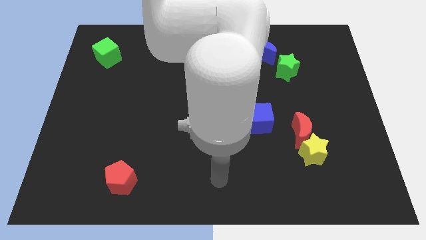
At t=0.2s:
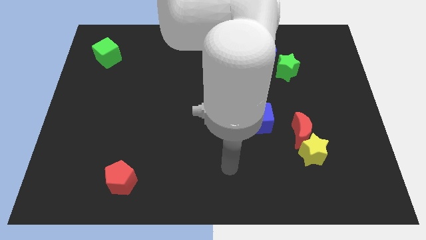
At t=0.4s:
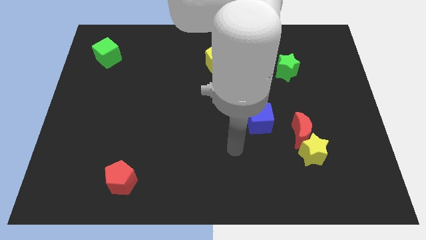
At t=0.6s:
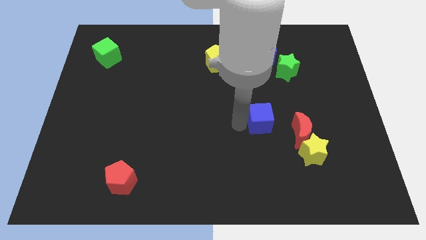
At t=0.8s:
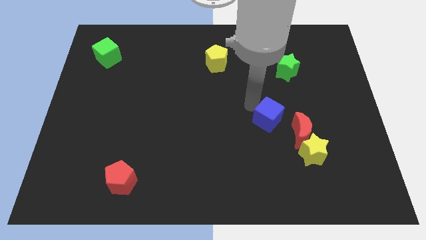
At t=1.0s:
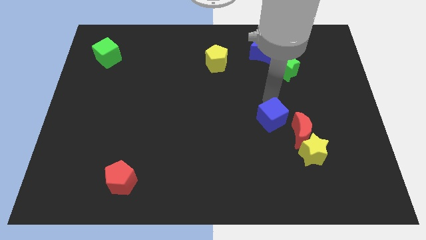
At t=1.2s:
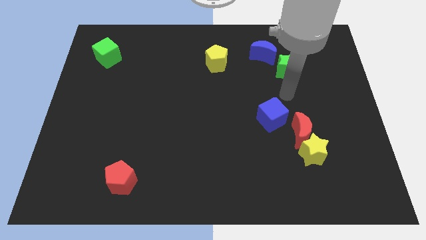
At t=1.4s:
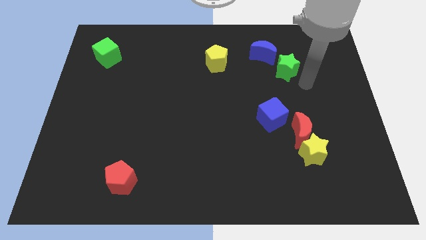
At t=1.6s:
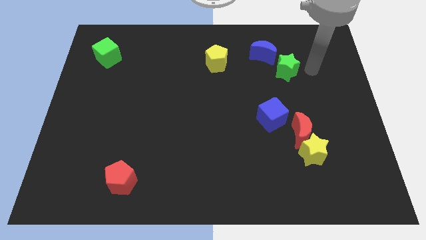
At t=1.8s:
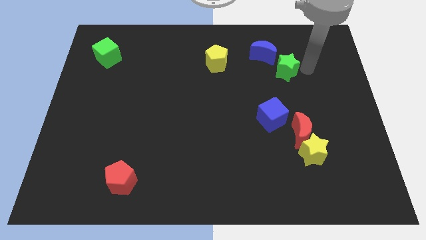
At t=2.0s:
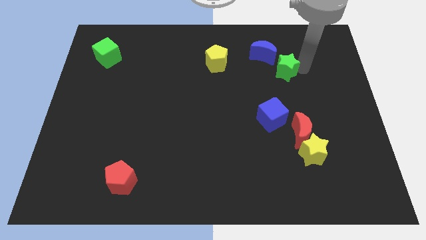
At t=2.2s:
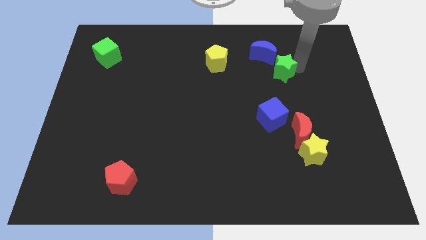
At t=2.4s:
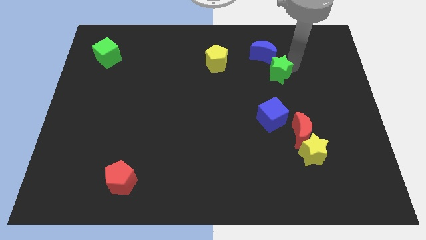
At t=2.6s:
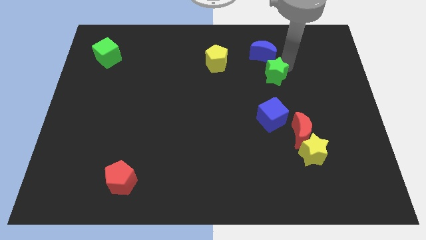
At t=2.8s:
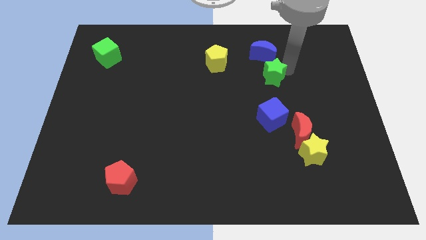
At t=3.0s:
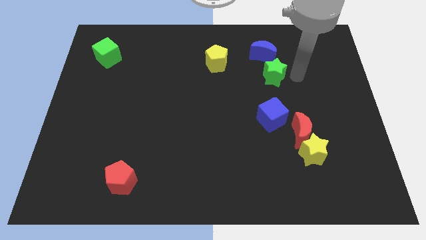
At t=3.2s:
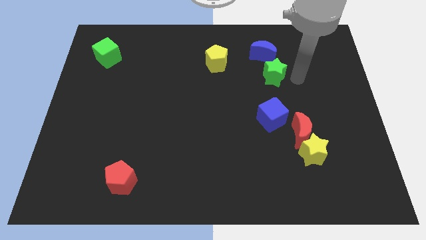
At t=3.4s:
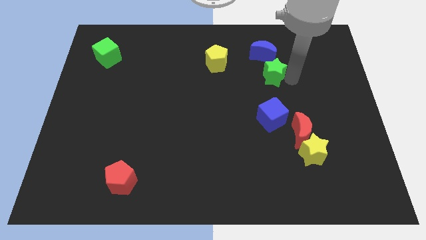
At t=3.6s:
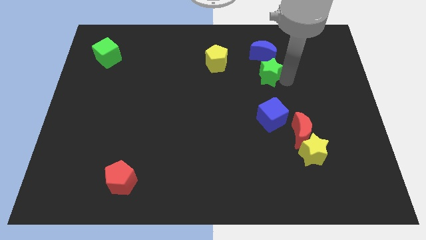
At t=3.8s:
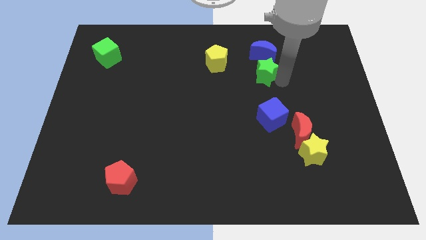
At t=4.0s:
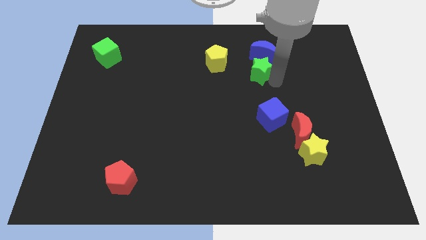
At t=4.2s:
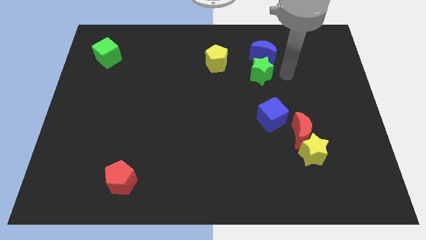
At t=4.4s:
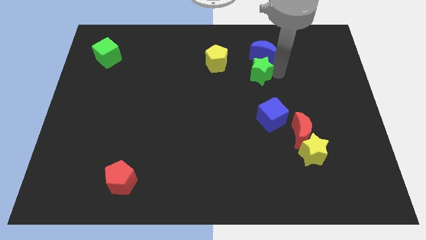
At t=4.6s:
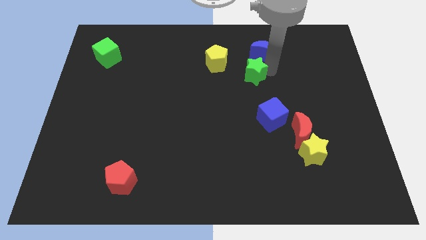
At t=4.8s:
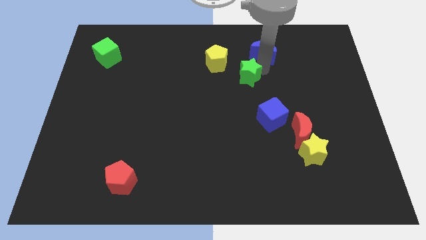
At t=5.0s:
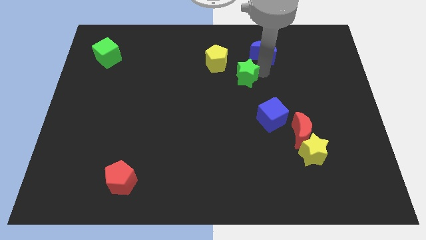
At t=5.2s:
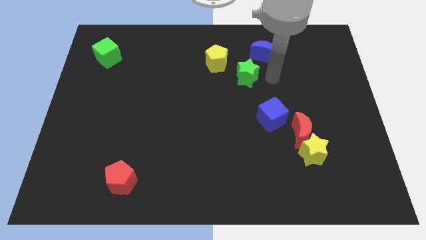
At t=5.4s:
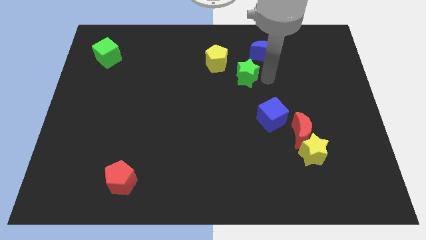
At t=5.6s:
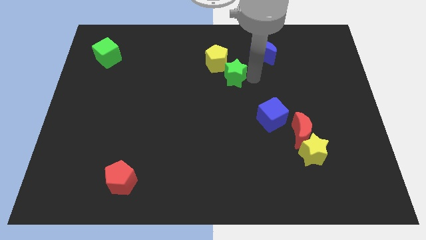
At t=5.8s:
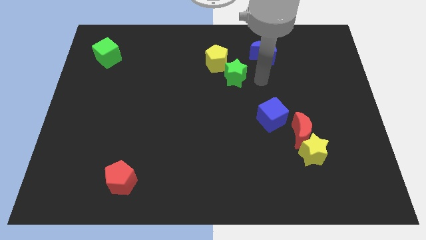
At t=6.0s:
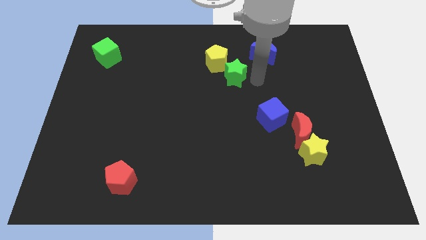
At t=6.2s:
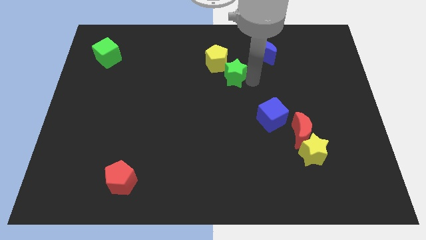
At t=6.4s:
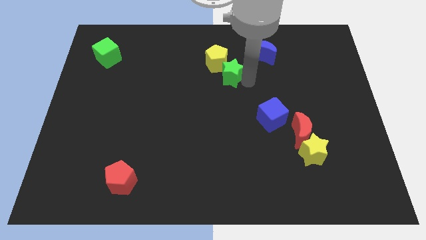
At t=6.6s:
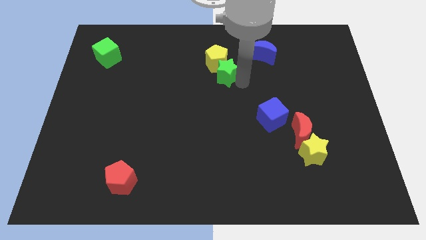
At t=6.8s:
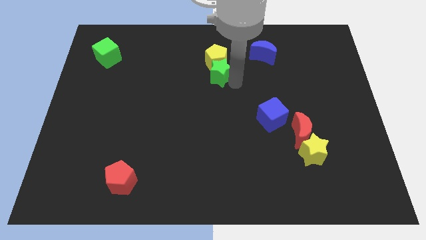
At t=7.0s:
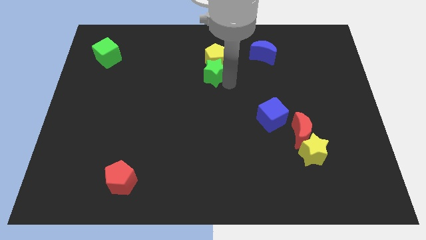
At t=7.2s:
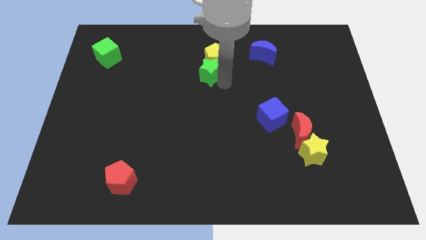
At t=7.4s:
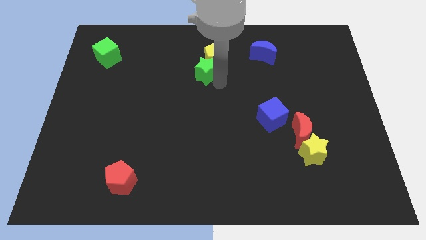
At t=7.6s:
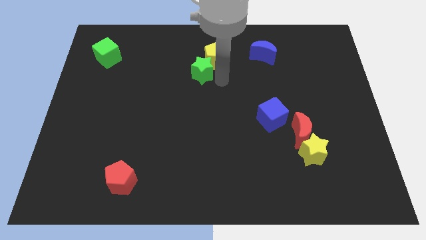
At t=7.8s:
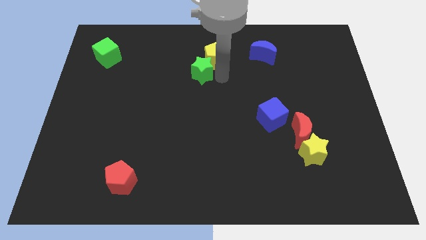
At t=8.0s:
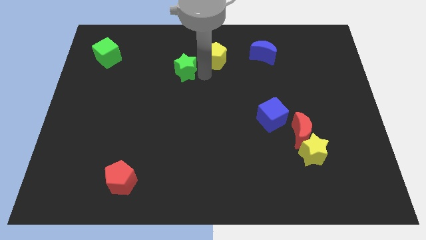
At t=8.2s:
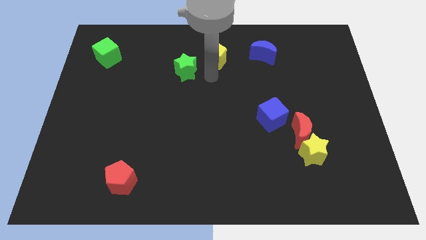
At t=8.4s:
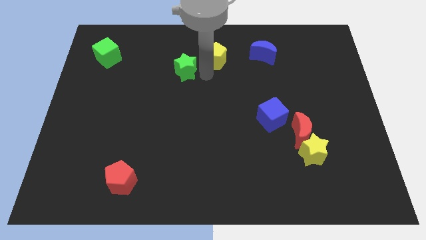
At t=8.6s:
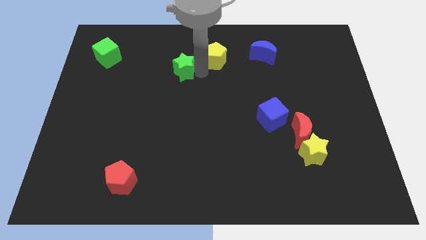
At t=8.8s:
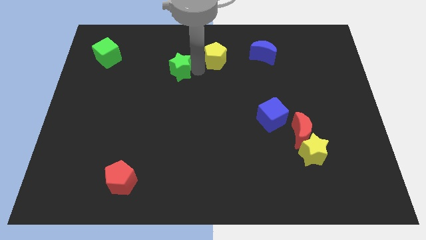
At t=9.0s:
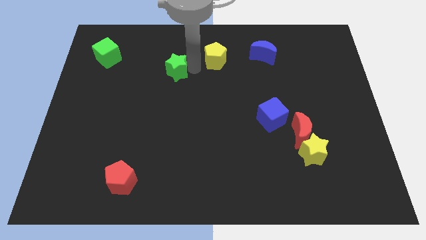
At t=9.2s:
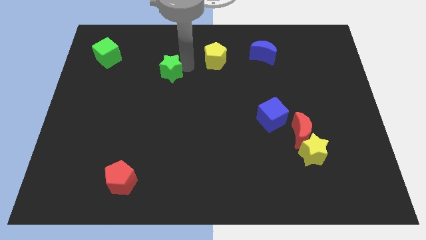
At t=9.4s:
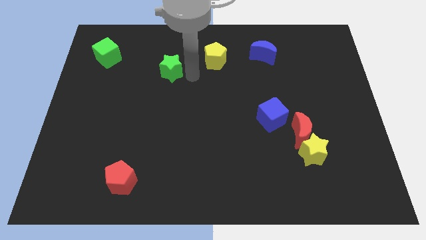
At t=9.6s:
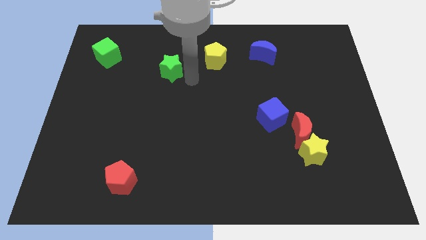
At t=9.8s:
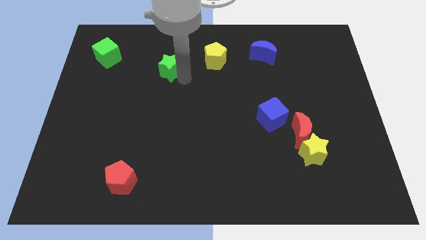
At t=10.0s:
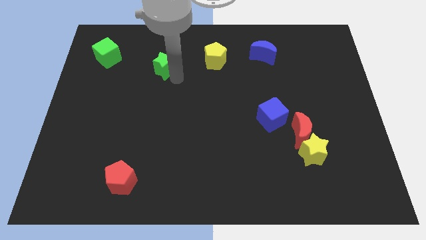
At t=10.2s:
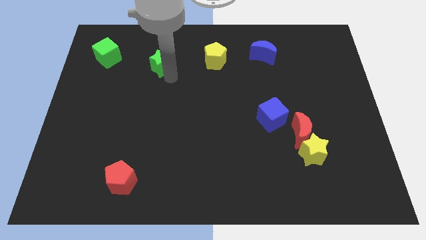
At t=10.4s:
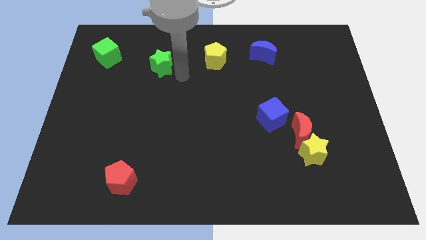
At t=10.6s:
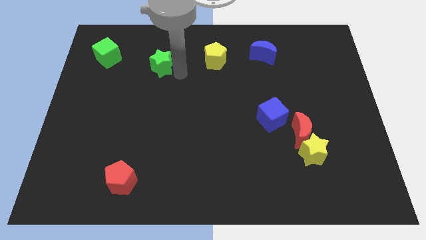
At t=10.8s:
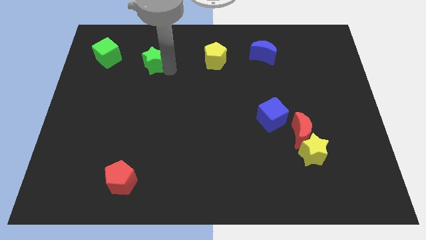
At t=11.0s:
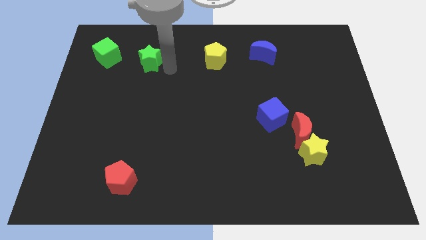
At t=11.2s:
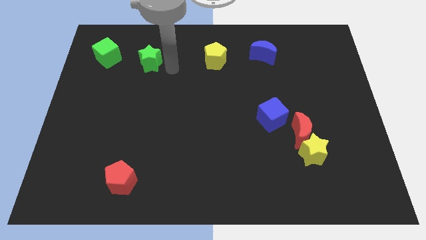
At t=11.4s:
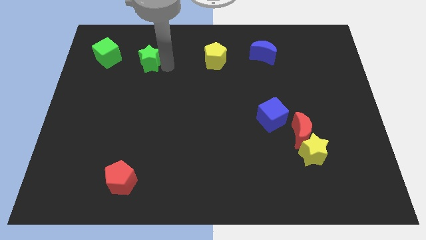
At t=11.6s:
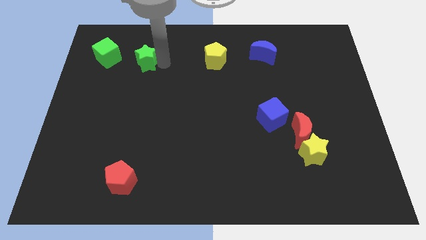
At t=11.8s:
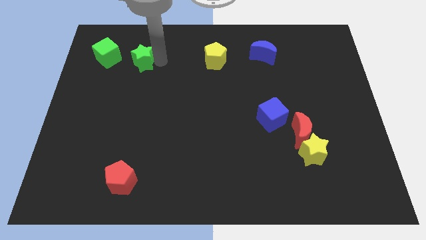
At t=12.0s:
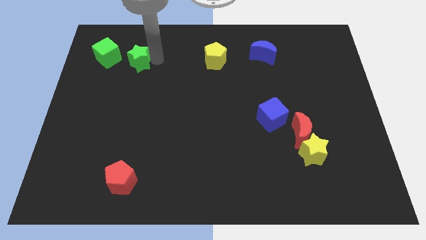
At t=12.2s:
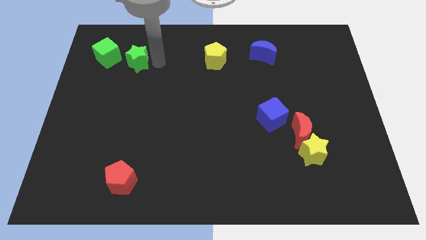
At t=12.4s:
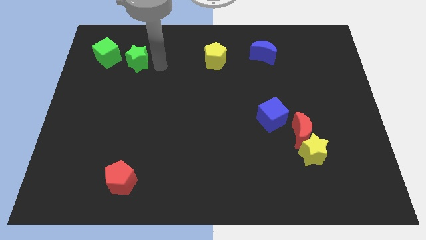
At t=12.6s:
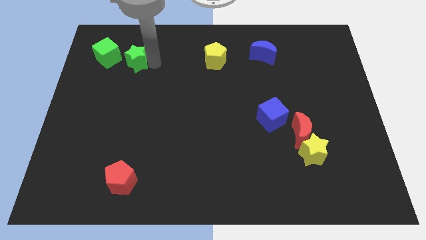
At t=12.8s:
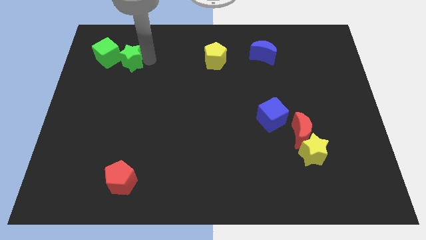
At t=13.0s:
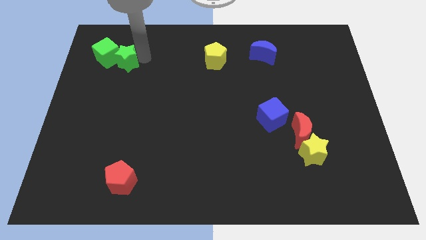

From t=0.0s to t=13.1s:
push the green star towards the green cube
